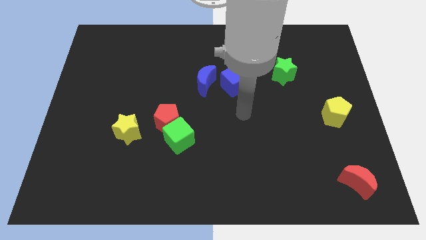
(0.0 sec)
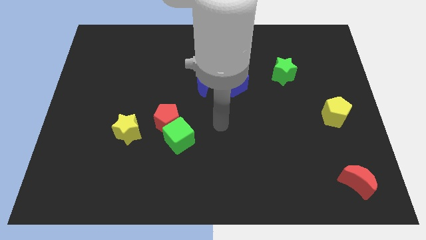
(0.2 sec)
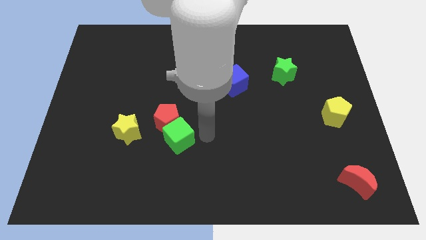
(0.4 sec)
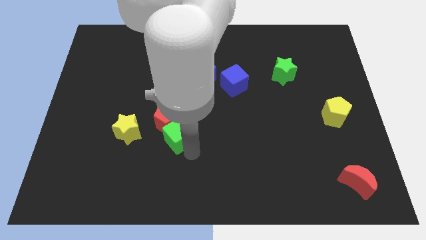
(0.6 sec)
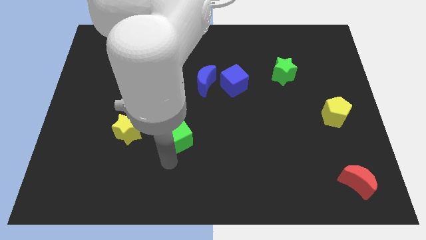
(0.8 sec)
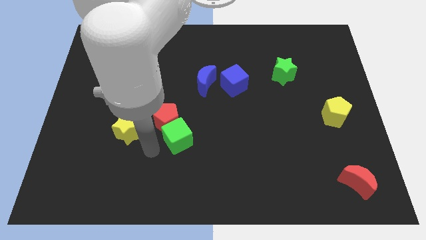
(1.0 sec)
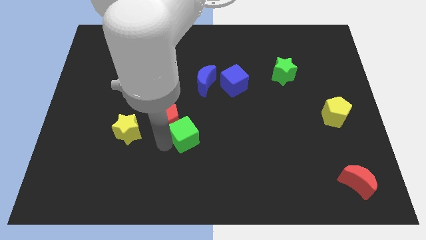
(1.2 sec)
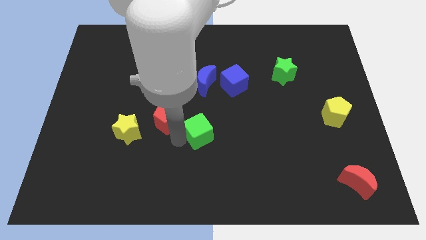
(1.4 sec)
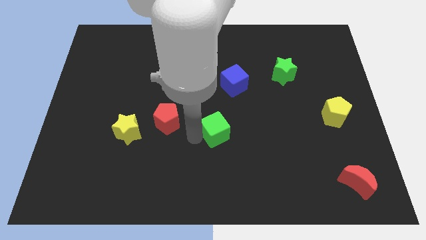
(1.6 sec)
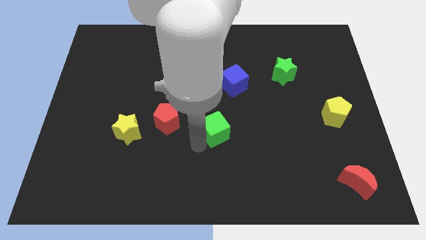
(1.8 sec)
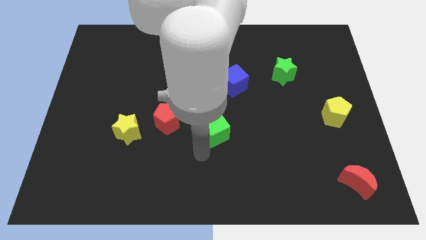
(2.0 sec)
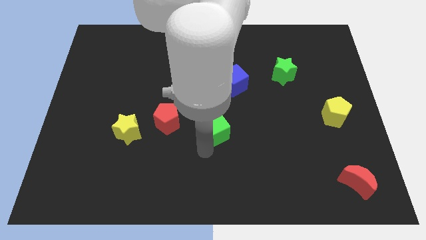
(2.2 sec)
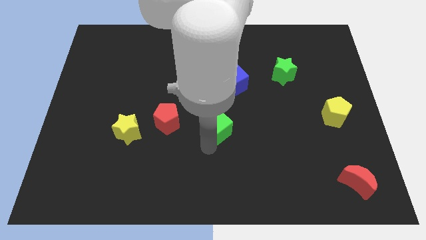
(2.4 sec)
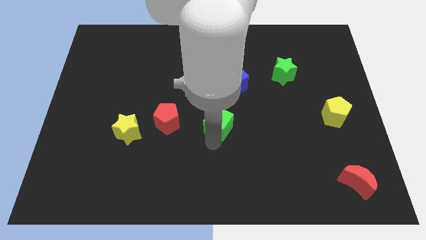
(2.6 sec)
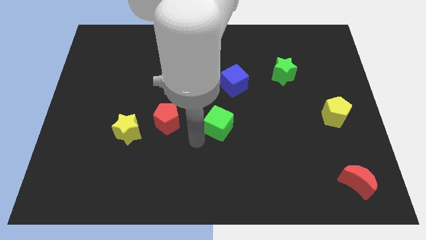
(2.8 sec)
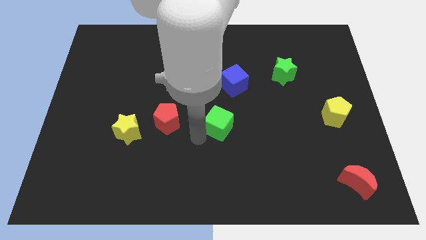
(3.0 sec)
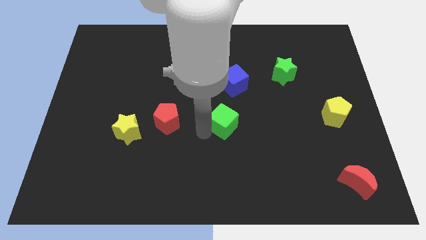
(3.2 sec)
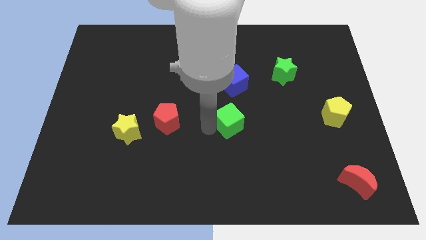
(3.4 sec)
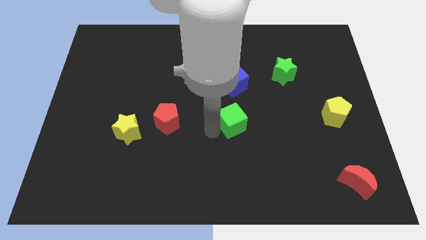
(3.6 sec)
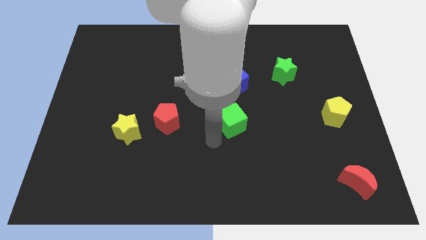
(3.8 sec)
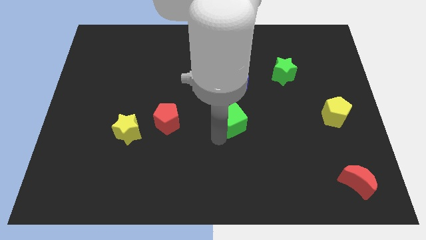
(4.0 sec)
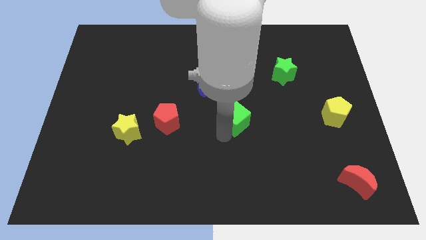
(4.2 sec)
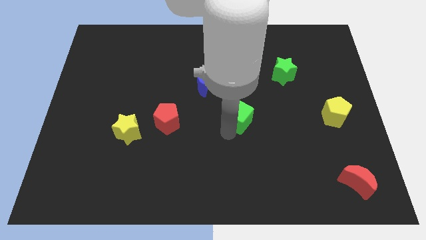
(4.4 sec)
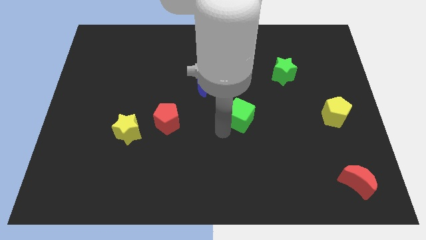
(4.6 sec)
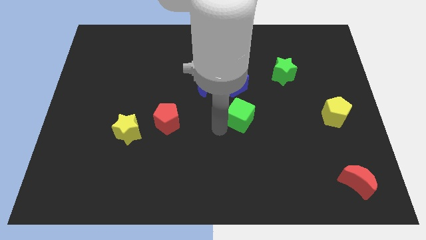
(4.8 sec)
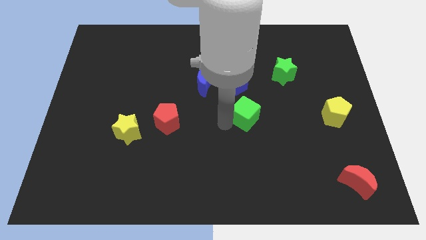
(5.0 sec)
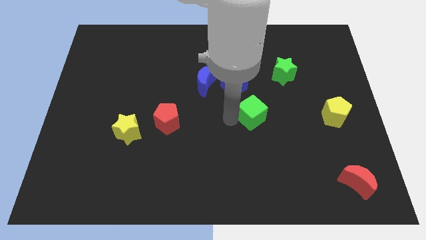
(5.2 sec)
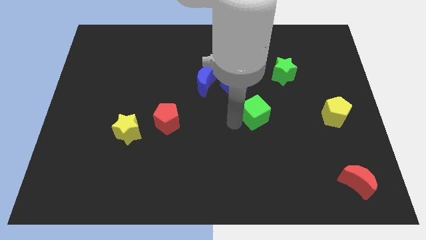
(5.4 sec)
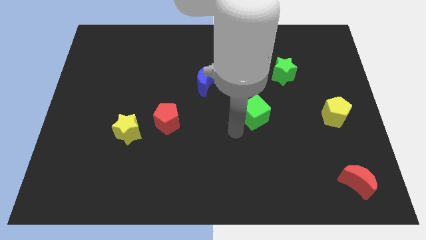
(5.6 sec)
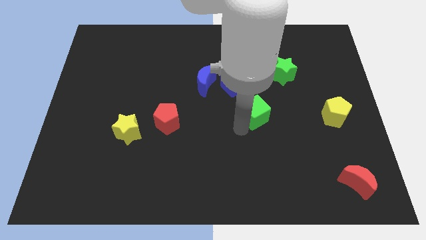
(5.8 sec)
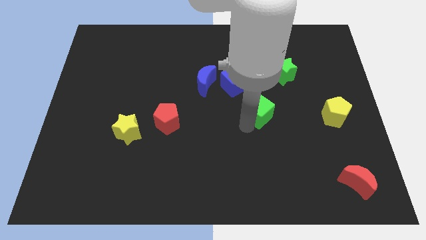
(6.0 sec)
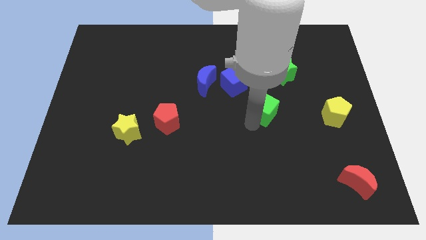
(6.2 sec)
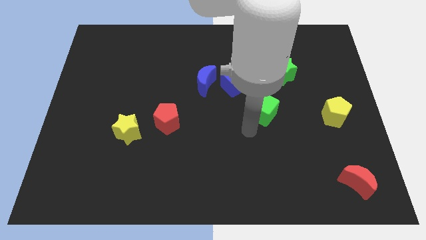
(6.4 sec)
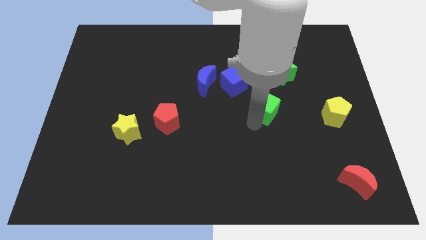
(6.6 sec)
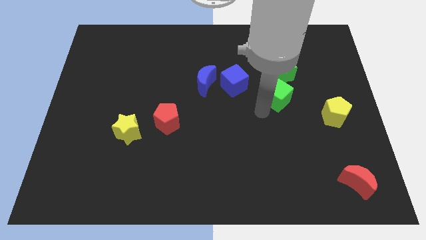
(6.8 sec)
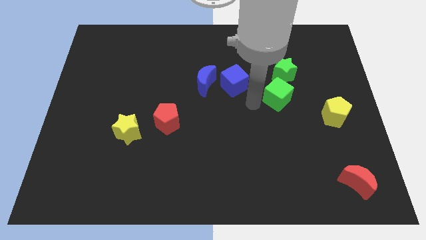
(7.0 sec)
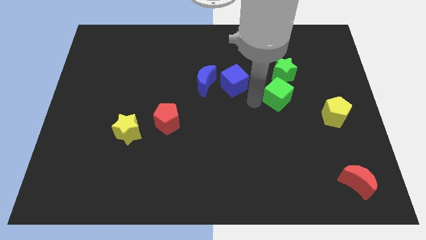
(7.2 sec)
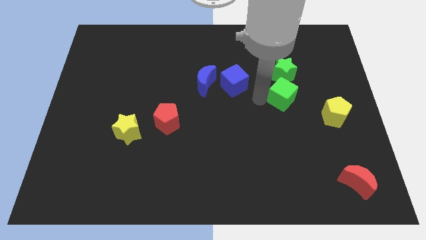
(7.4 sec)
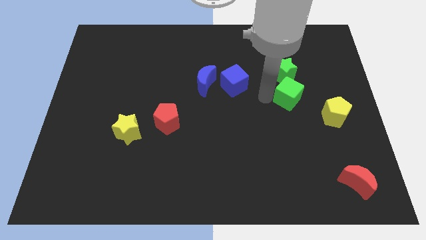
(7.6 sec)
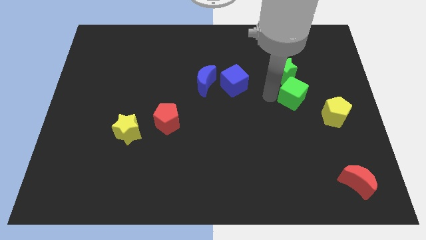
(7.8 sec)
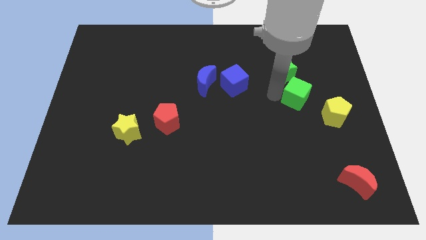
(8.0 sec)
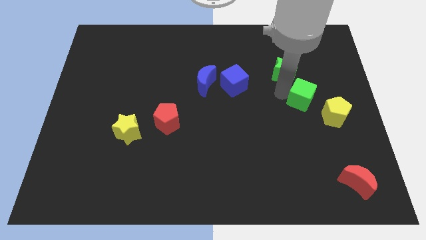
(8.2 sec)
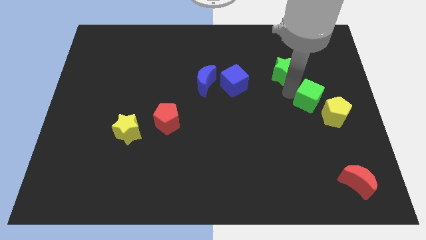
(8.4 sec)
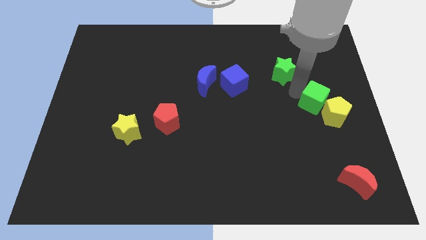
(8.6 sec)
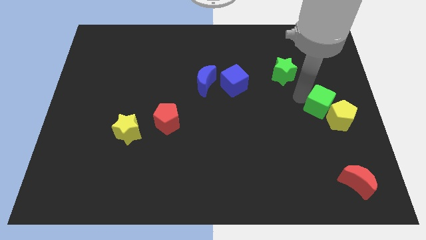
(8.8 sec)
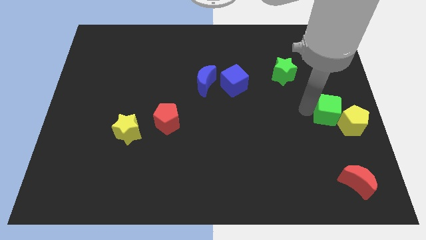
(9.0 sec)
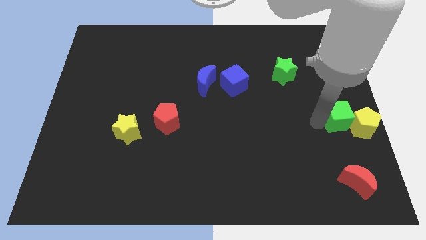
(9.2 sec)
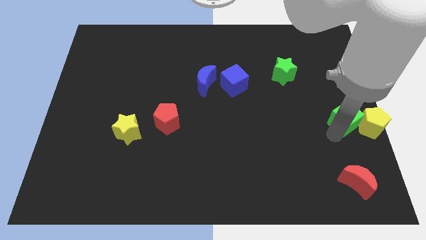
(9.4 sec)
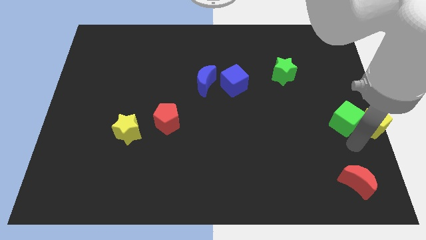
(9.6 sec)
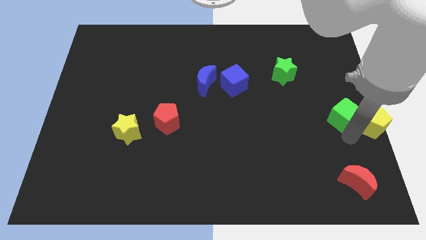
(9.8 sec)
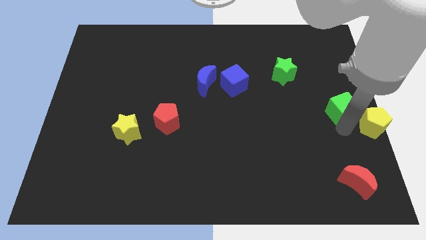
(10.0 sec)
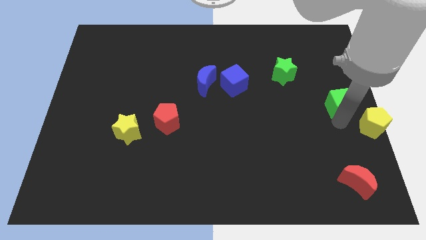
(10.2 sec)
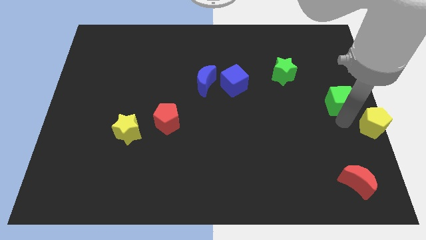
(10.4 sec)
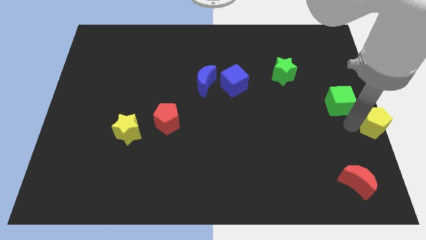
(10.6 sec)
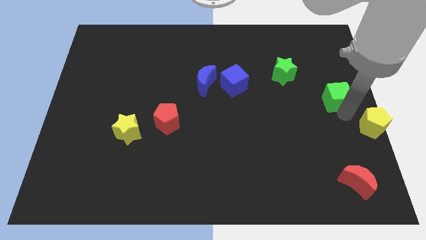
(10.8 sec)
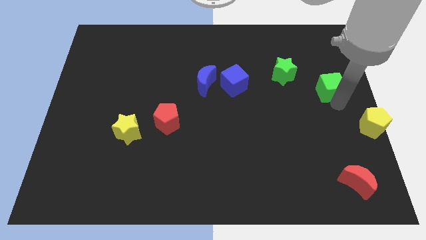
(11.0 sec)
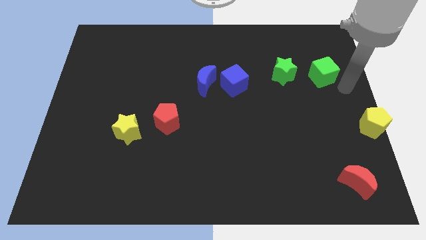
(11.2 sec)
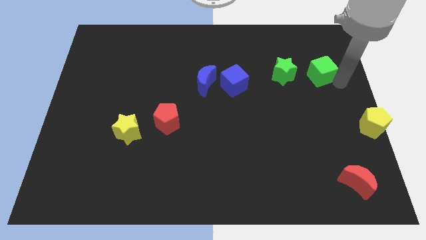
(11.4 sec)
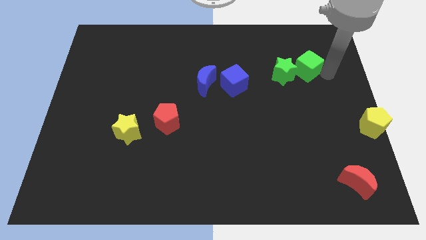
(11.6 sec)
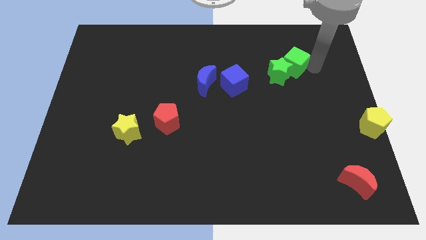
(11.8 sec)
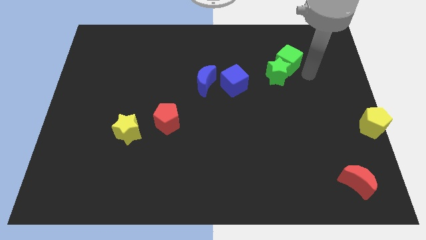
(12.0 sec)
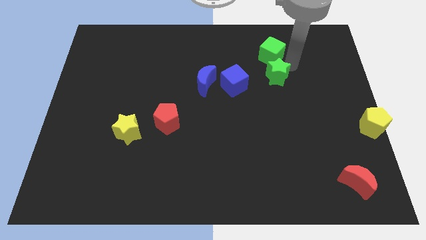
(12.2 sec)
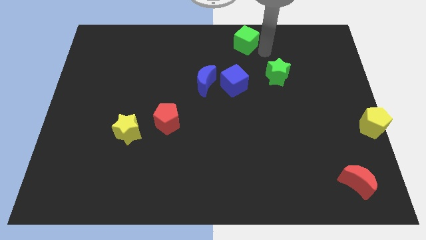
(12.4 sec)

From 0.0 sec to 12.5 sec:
move the green cube to the towards your base
